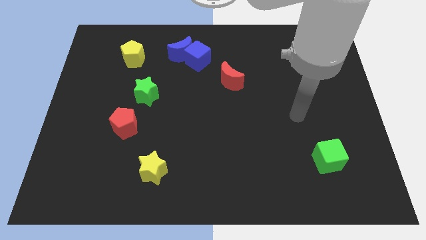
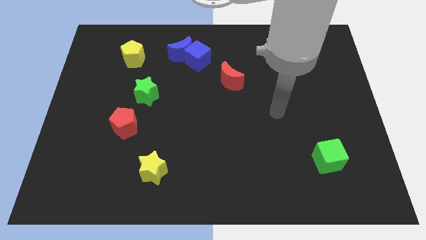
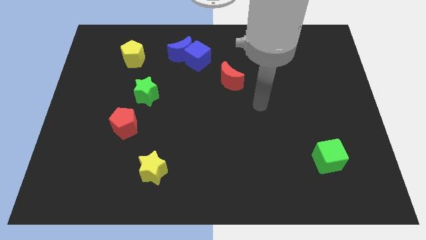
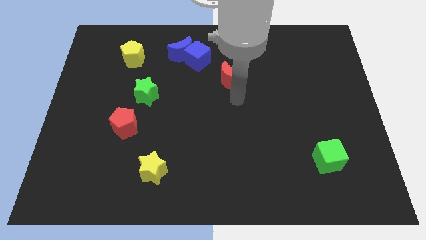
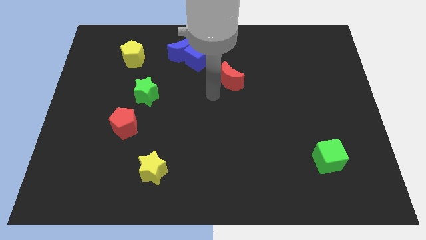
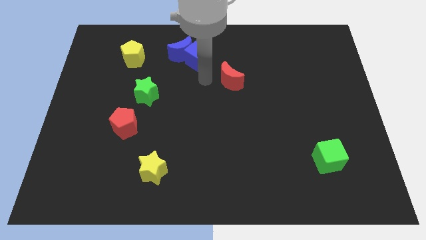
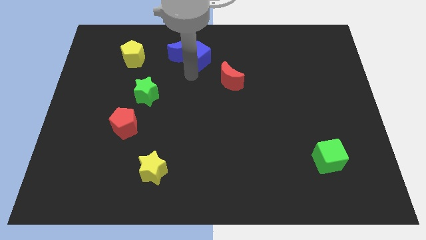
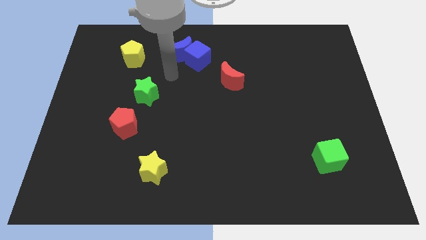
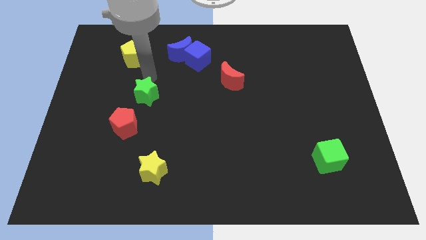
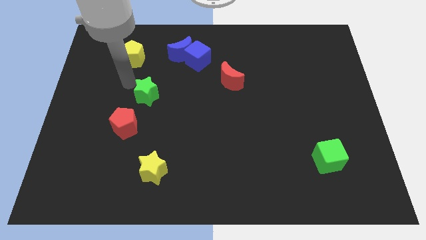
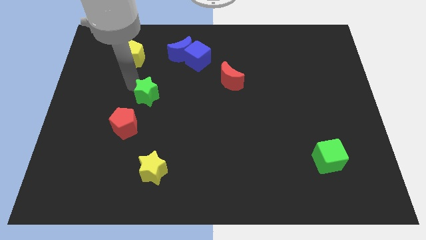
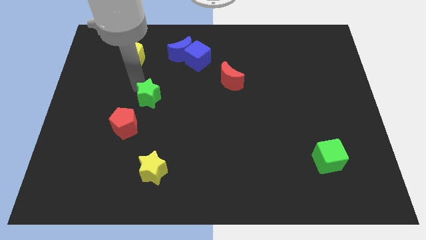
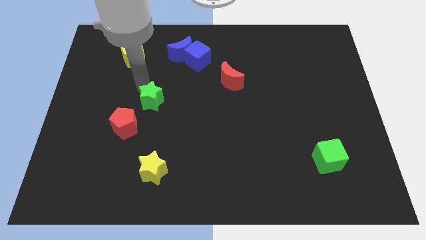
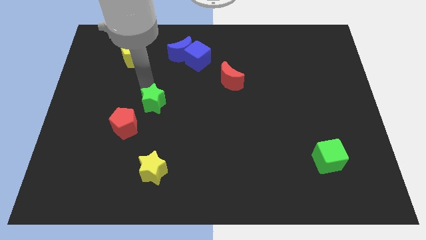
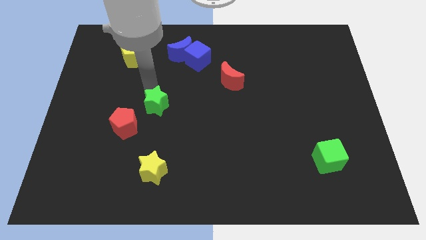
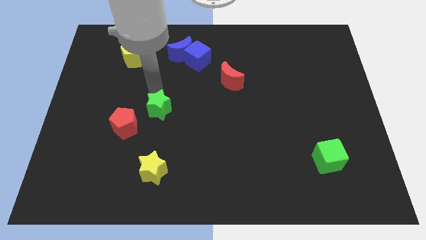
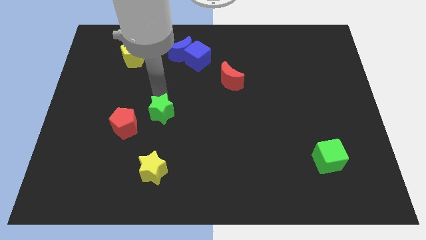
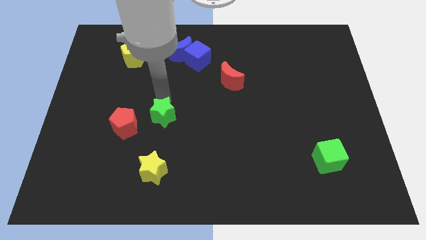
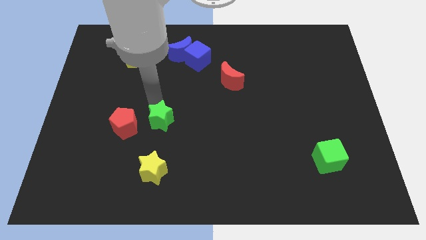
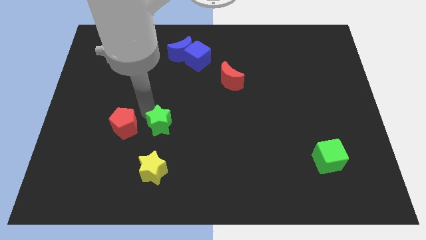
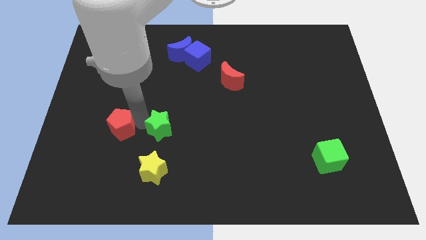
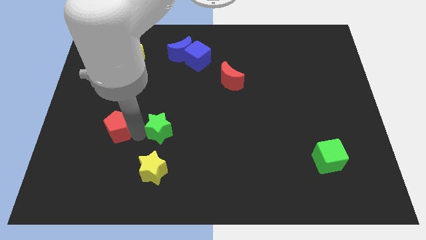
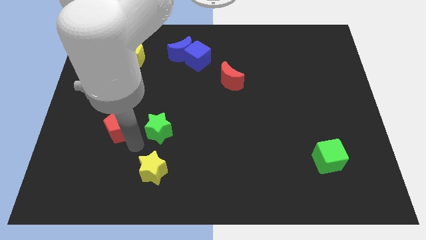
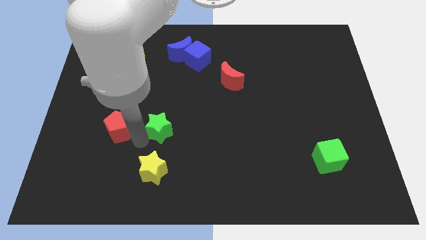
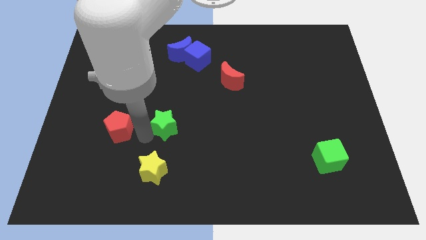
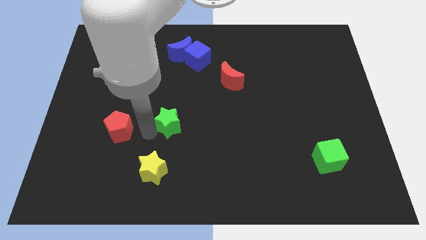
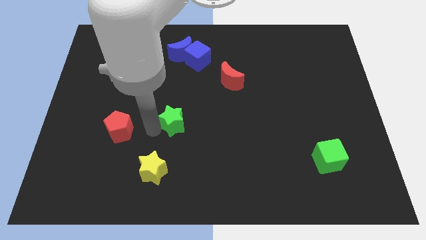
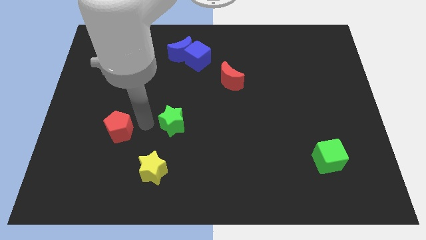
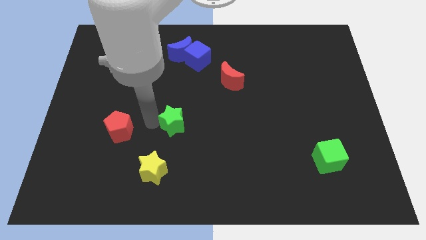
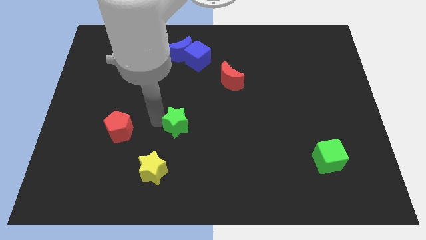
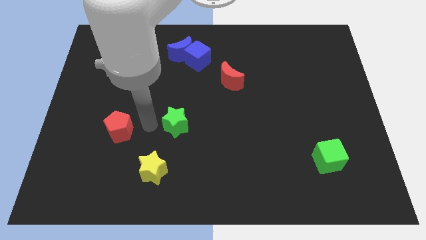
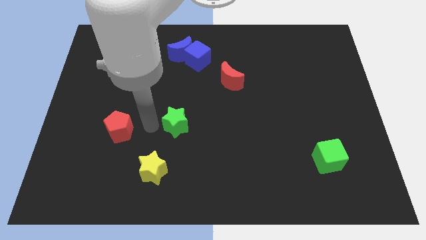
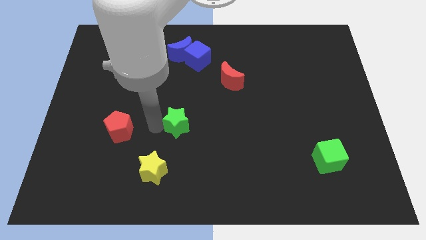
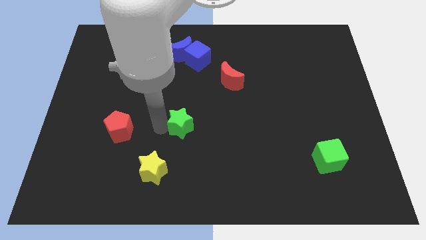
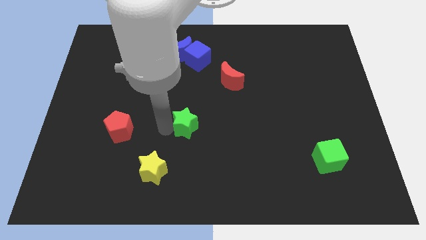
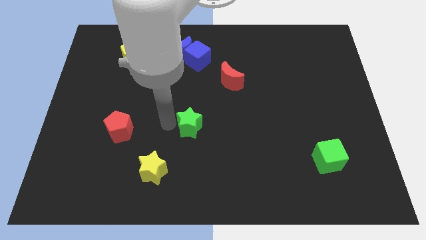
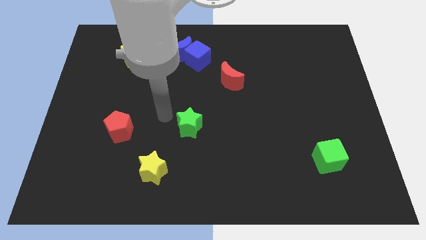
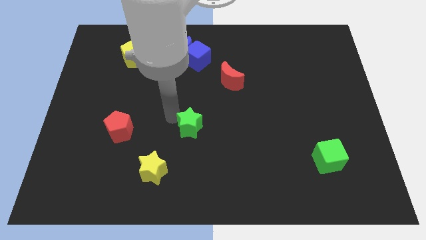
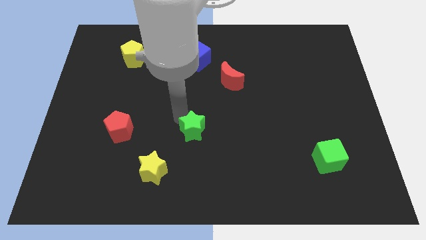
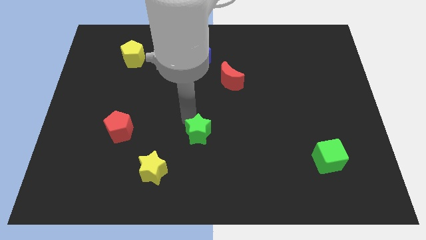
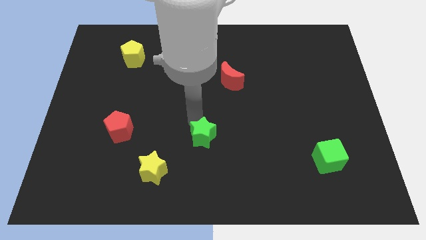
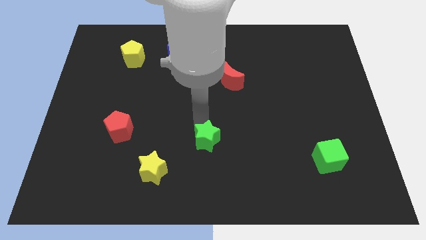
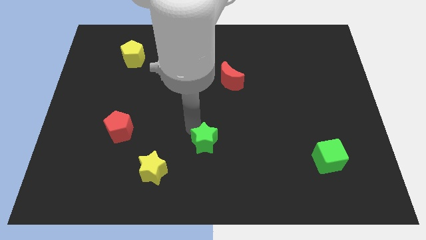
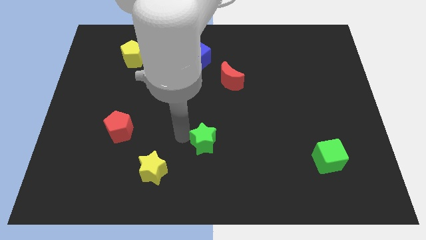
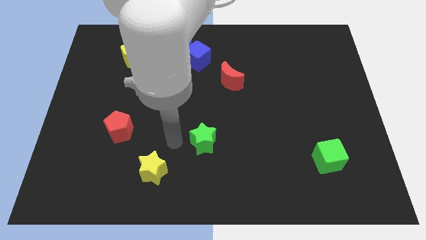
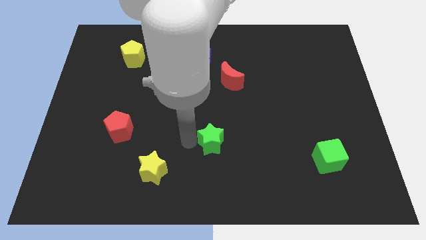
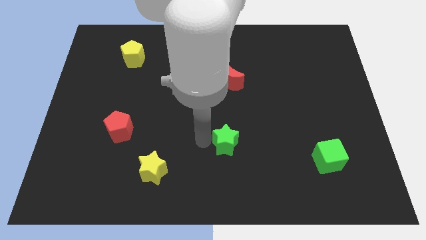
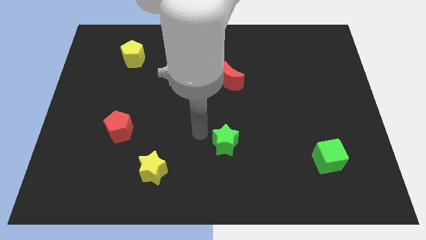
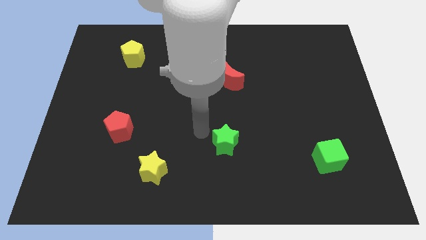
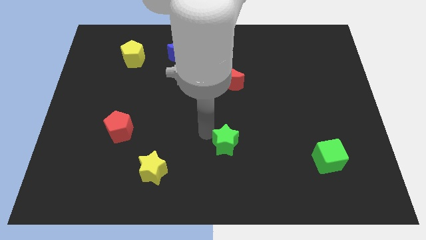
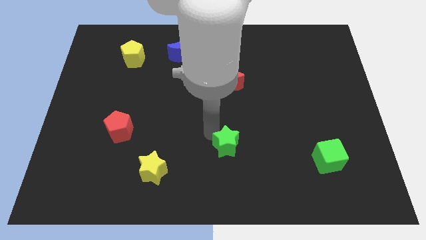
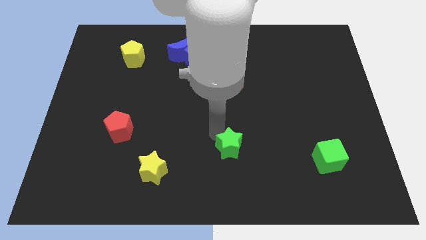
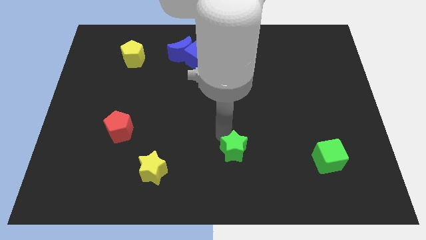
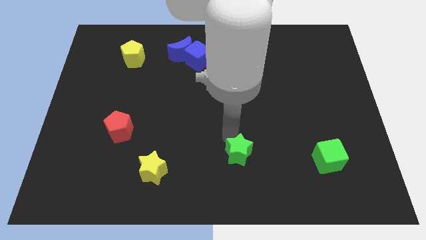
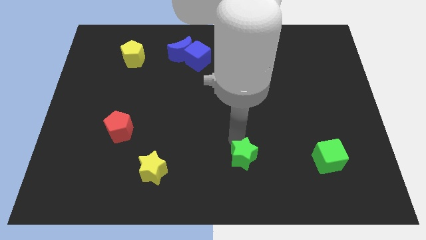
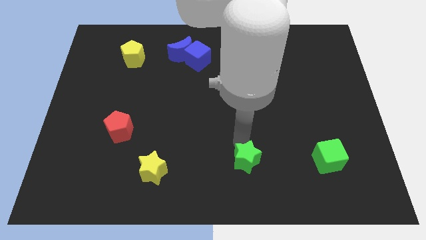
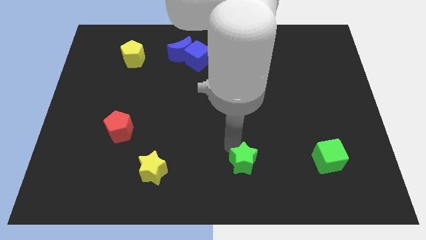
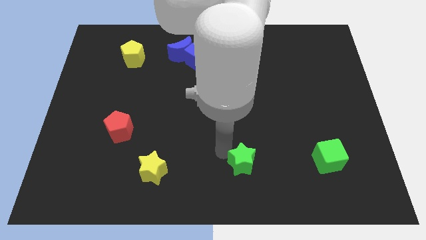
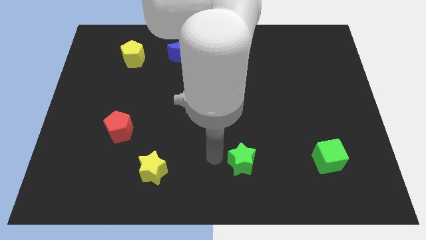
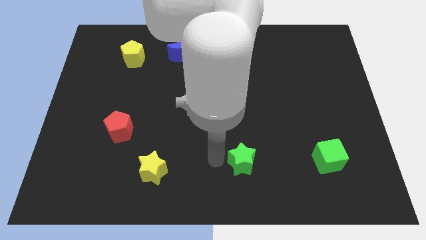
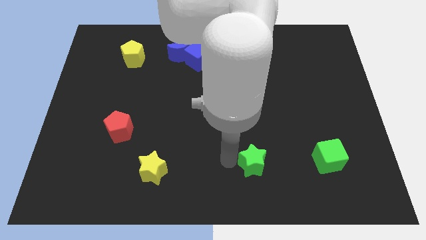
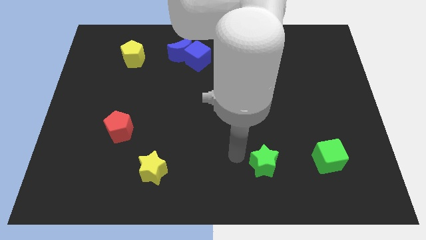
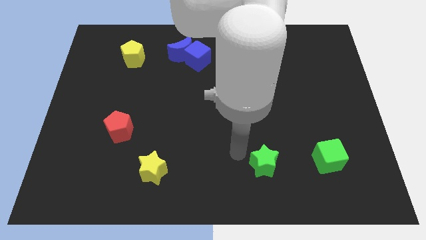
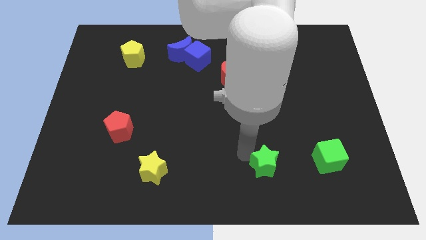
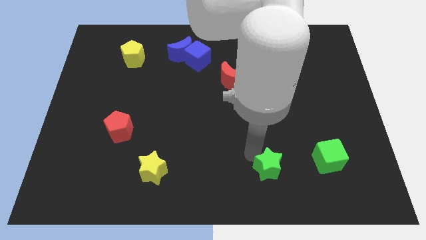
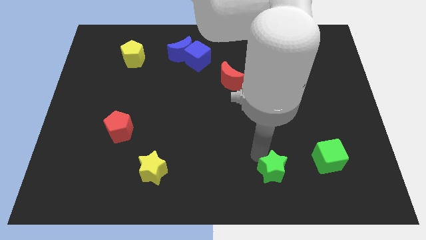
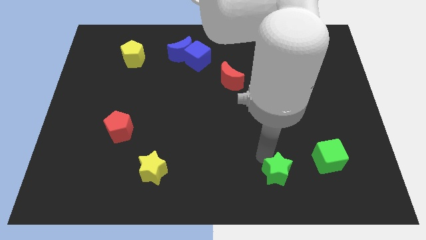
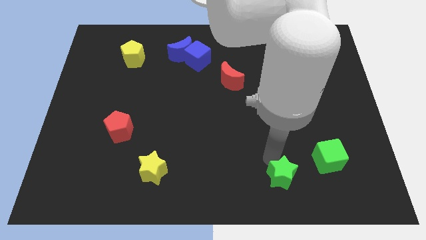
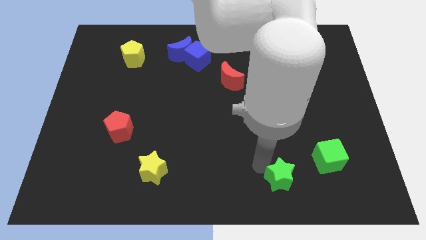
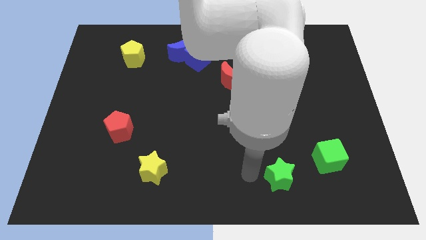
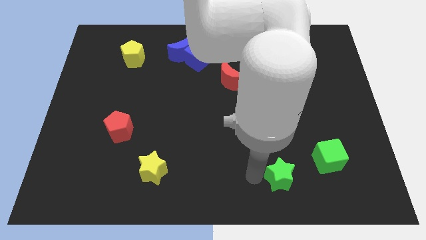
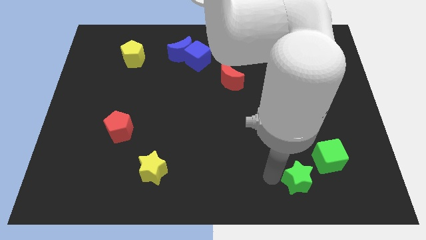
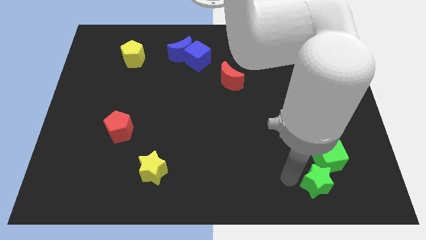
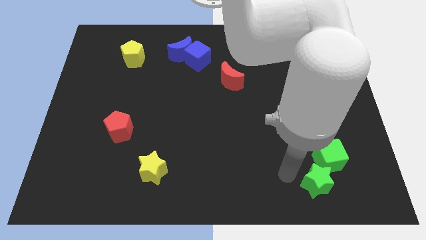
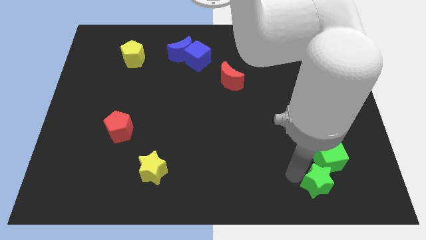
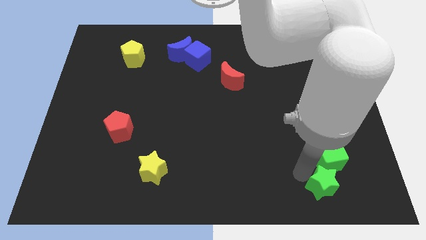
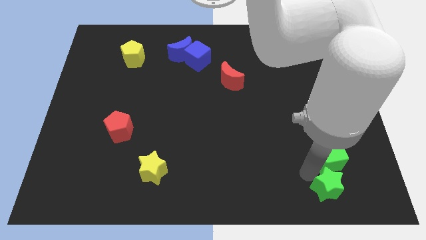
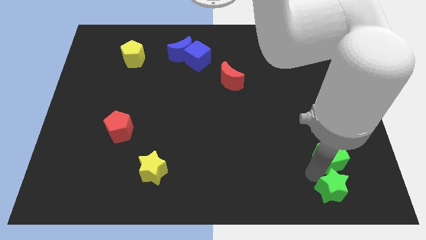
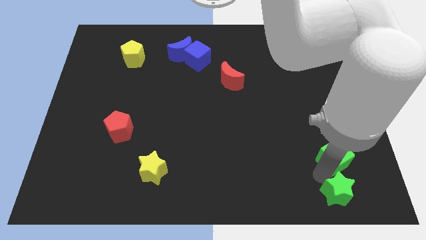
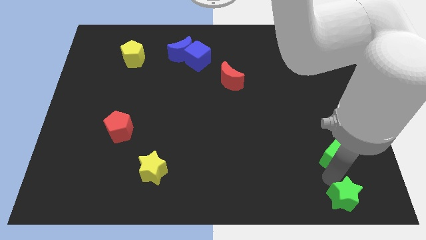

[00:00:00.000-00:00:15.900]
move the green star to the bottom right
